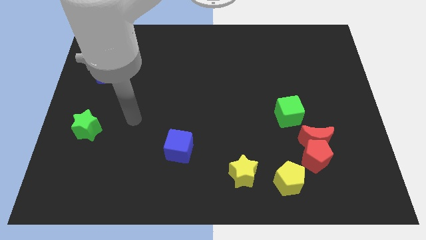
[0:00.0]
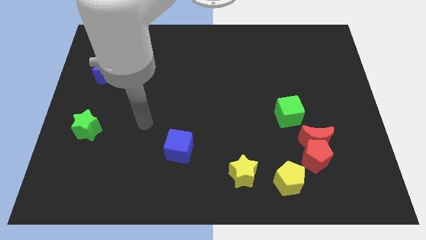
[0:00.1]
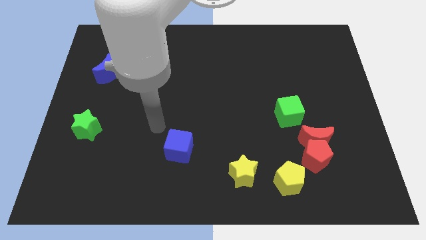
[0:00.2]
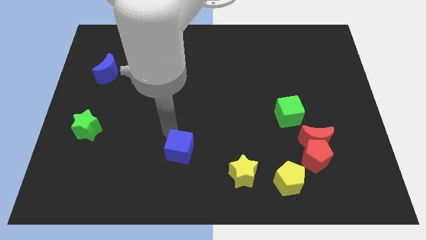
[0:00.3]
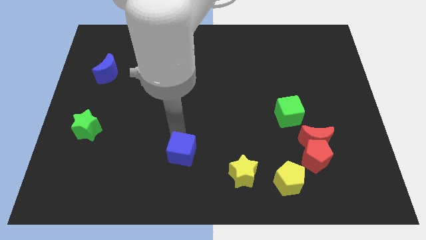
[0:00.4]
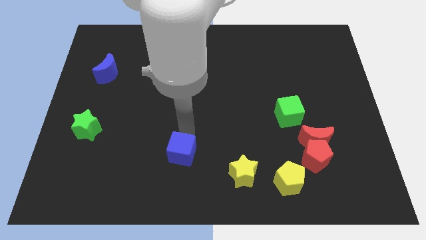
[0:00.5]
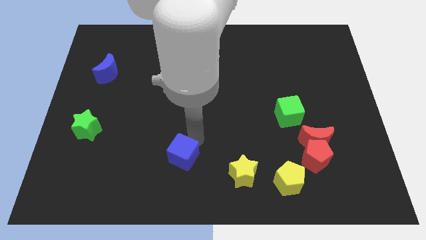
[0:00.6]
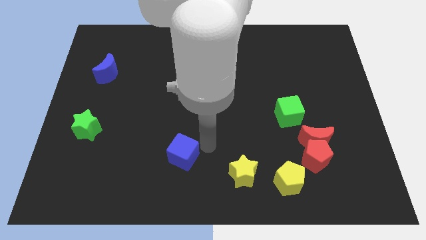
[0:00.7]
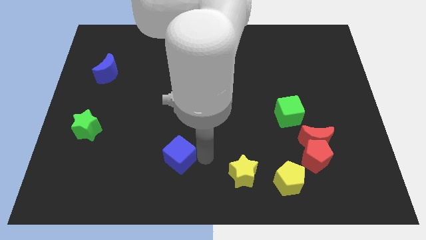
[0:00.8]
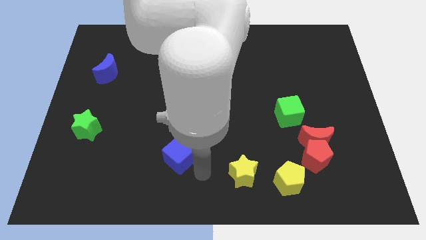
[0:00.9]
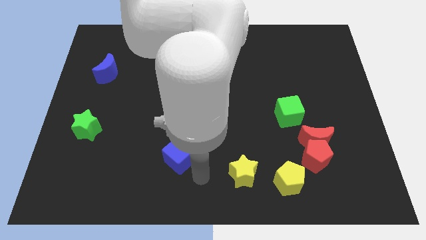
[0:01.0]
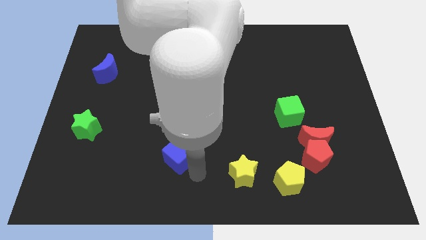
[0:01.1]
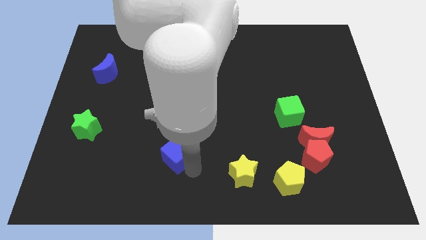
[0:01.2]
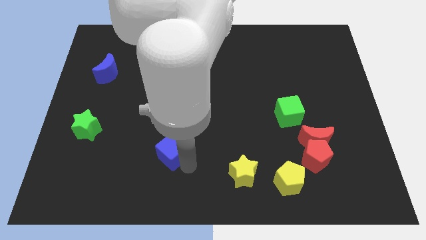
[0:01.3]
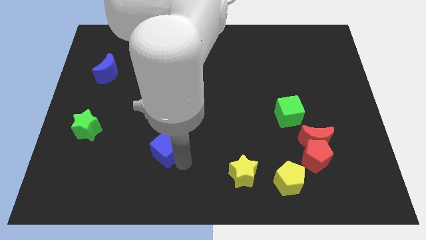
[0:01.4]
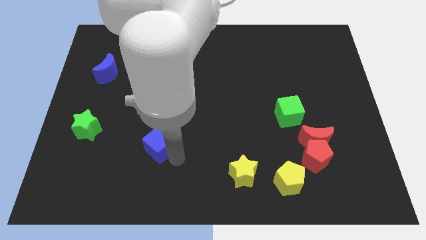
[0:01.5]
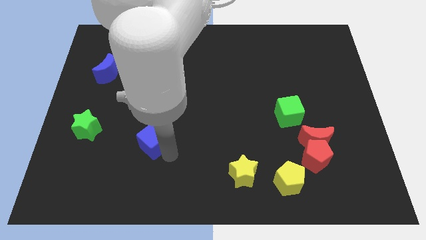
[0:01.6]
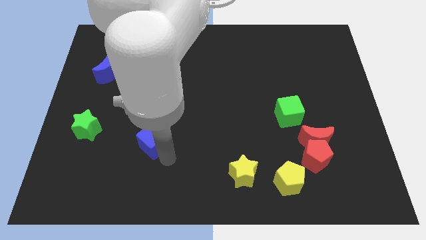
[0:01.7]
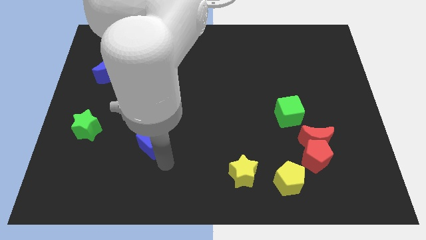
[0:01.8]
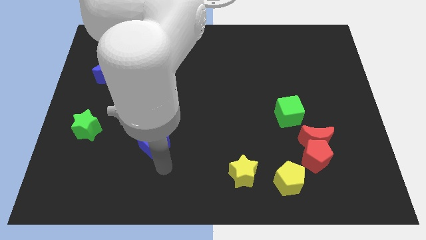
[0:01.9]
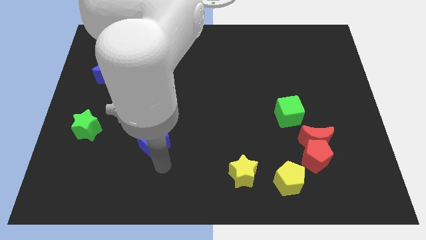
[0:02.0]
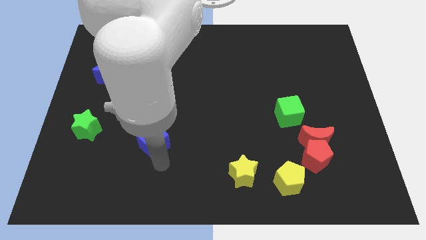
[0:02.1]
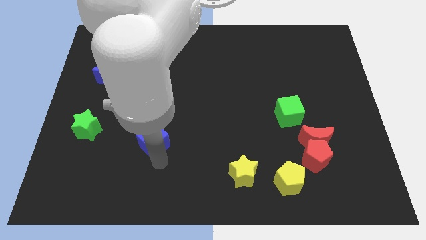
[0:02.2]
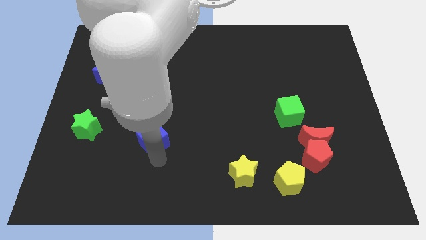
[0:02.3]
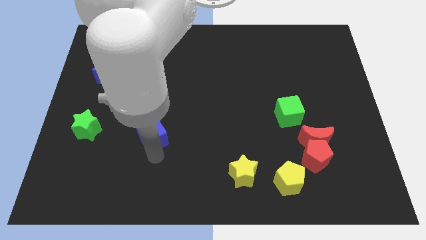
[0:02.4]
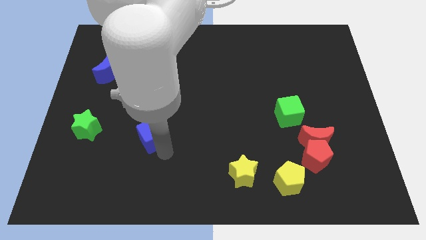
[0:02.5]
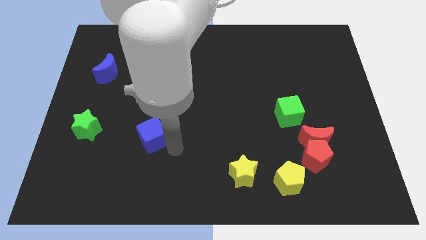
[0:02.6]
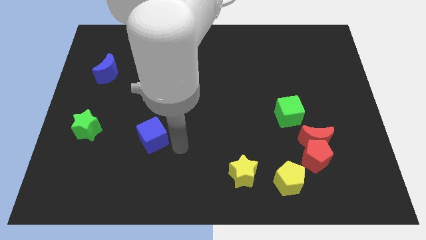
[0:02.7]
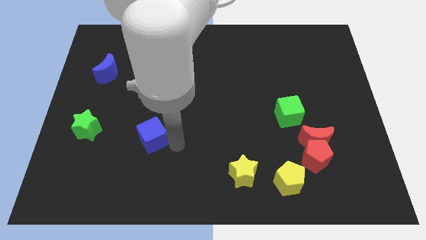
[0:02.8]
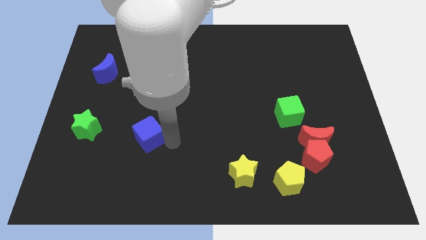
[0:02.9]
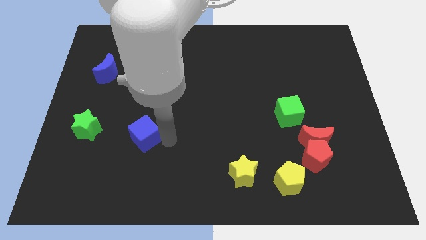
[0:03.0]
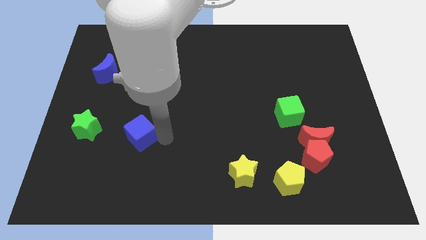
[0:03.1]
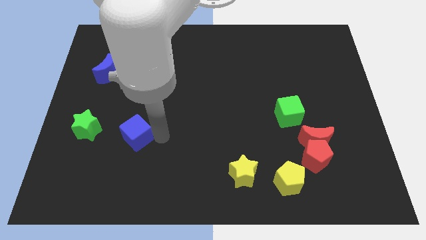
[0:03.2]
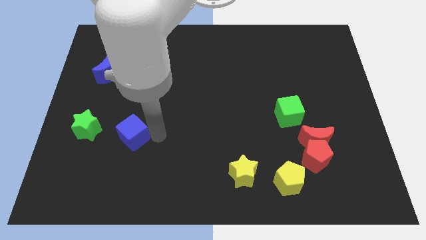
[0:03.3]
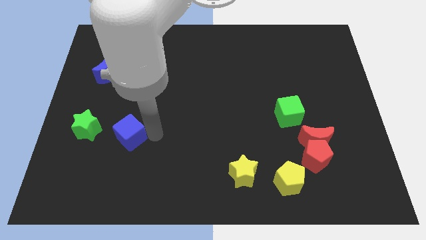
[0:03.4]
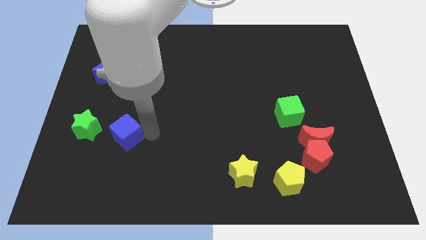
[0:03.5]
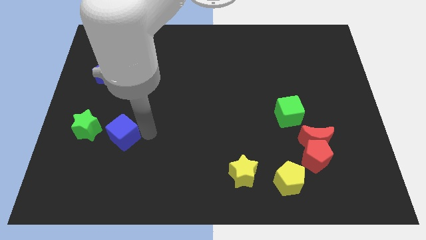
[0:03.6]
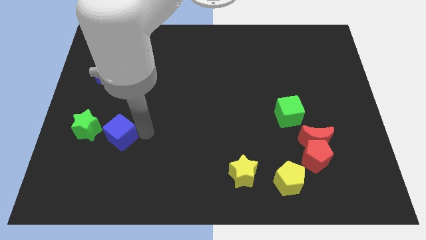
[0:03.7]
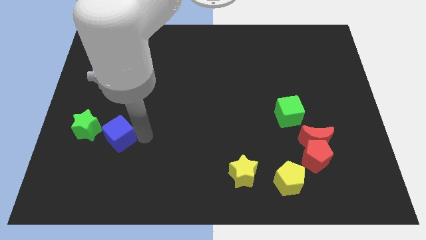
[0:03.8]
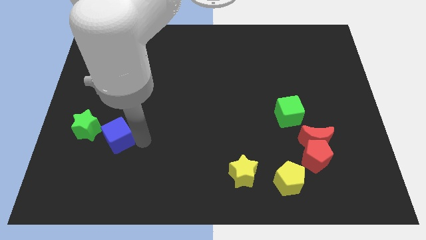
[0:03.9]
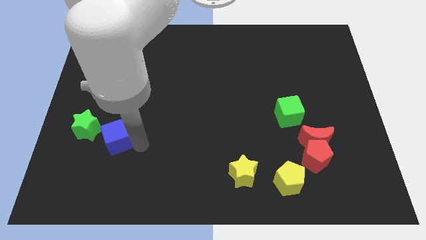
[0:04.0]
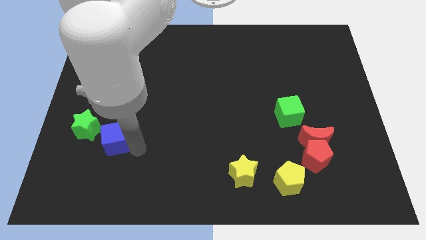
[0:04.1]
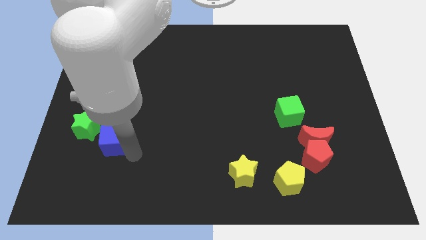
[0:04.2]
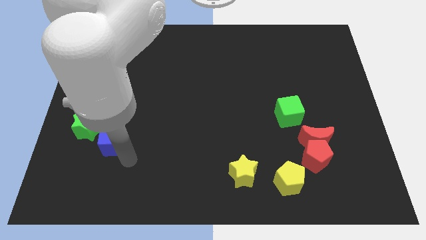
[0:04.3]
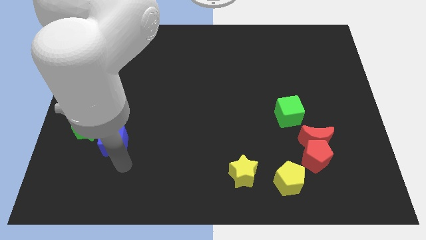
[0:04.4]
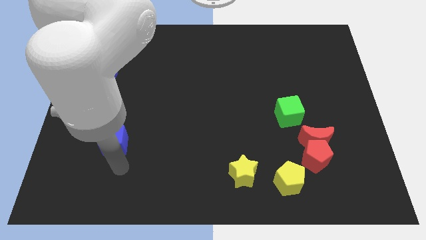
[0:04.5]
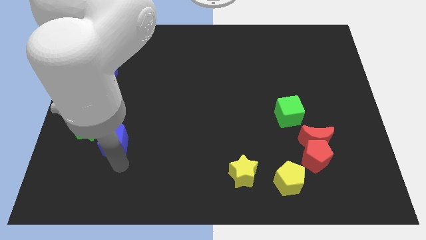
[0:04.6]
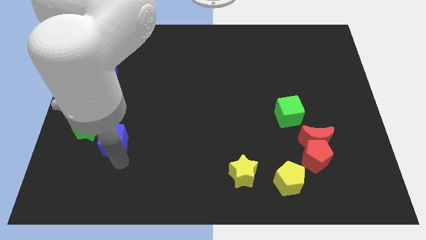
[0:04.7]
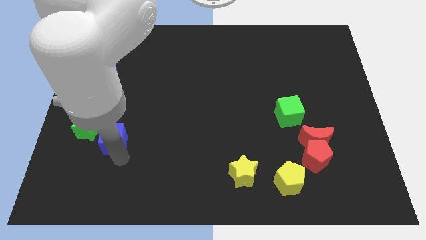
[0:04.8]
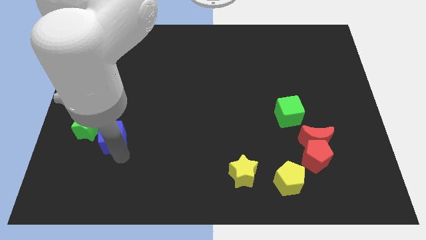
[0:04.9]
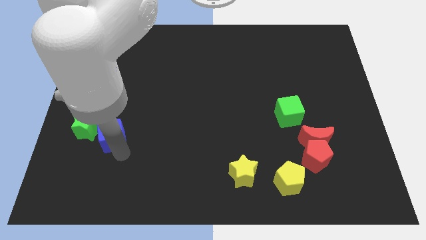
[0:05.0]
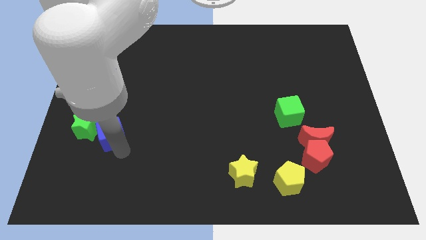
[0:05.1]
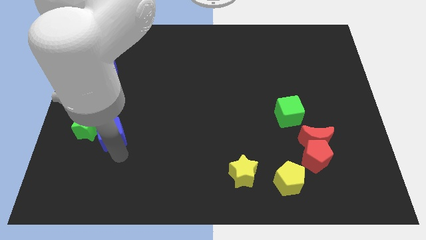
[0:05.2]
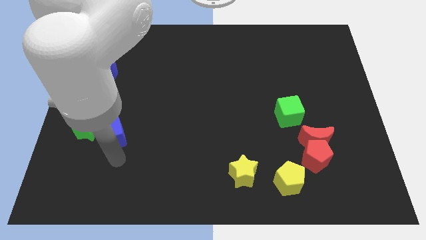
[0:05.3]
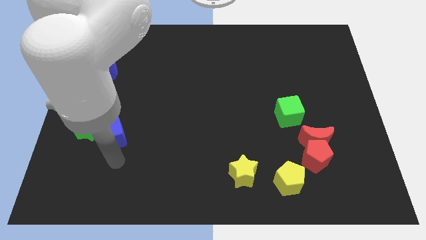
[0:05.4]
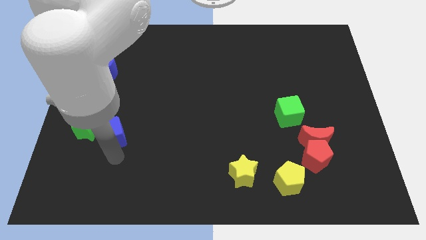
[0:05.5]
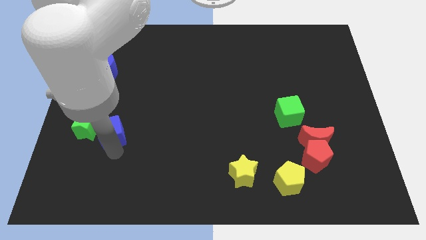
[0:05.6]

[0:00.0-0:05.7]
push the blue cube close to the green star
